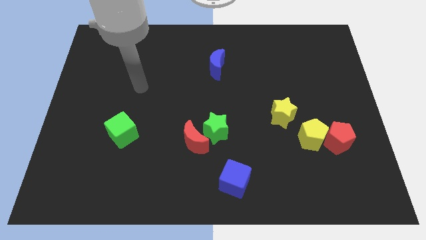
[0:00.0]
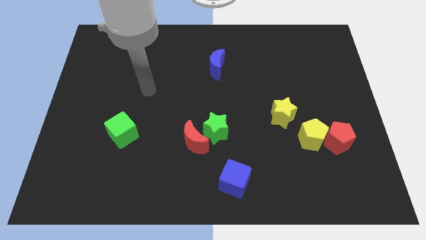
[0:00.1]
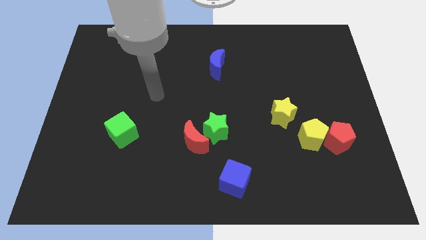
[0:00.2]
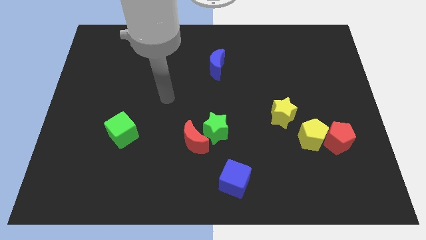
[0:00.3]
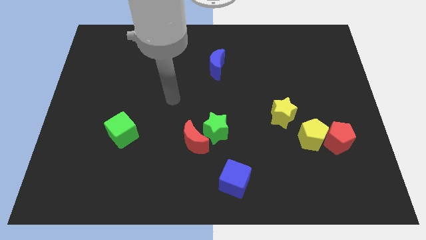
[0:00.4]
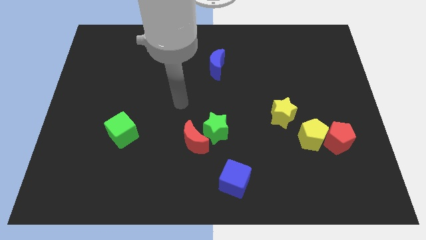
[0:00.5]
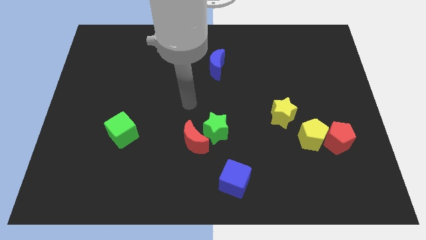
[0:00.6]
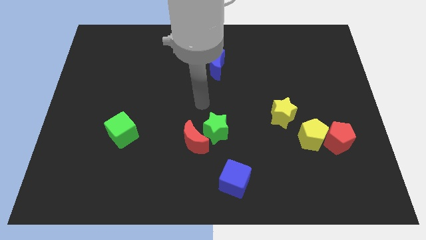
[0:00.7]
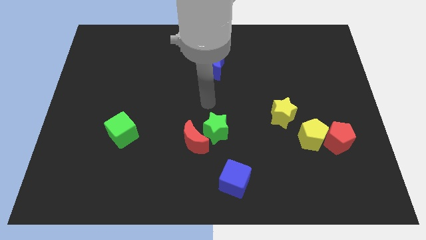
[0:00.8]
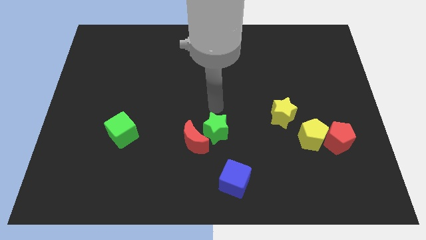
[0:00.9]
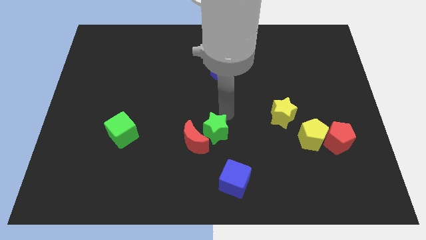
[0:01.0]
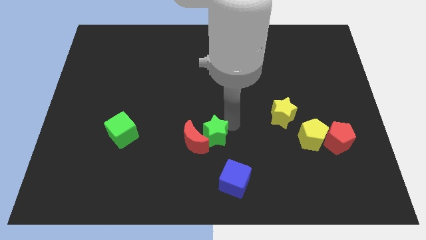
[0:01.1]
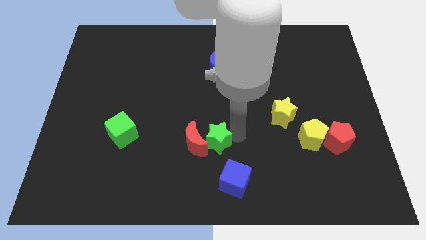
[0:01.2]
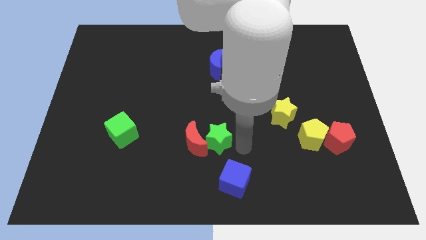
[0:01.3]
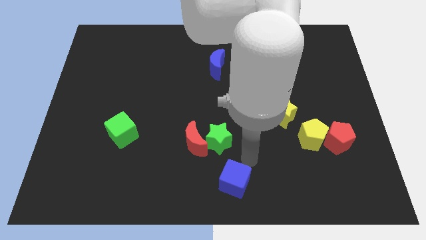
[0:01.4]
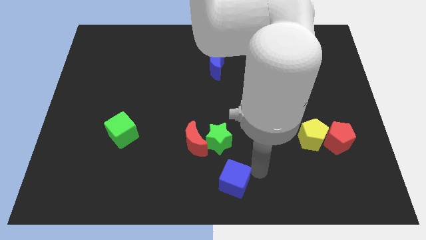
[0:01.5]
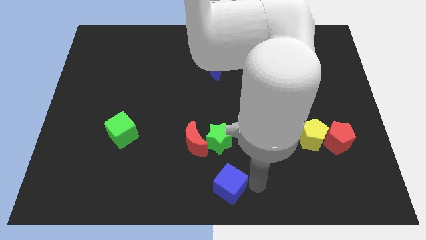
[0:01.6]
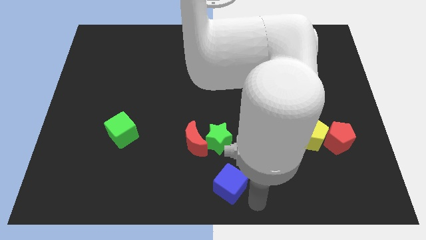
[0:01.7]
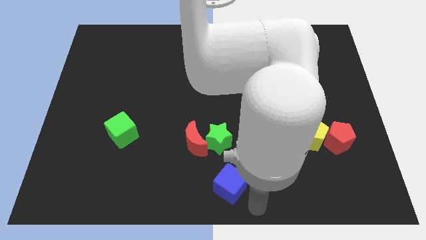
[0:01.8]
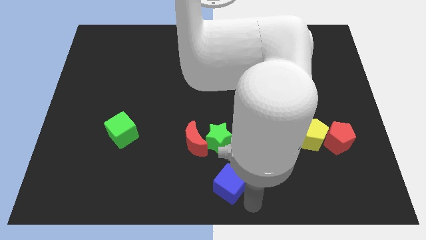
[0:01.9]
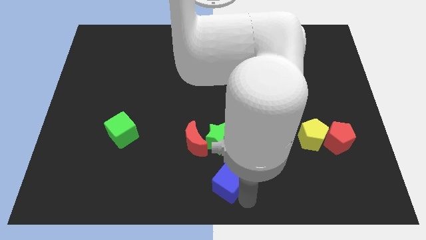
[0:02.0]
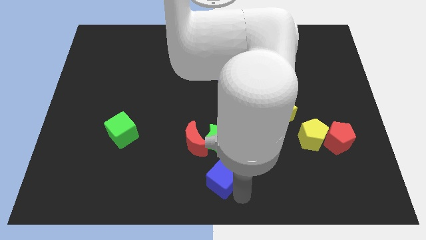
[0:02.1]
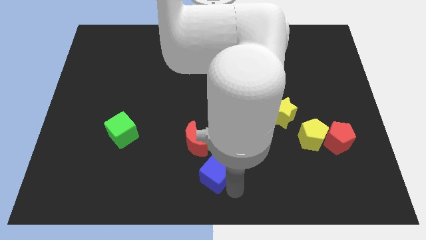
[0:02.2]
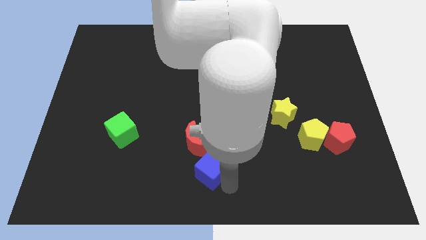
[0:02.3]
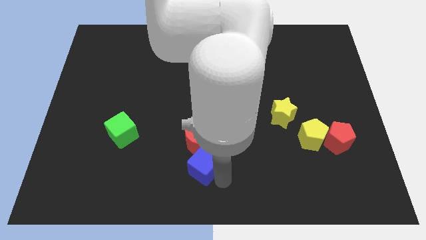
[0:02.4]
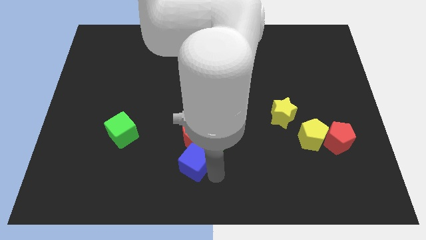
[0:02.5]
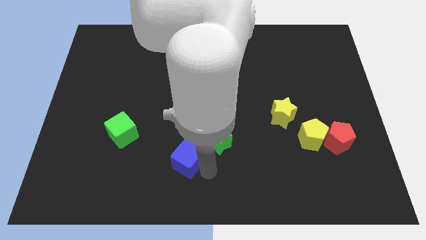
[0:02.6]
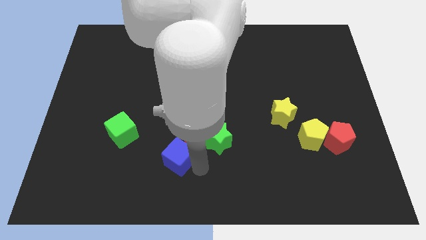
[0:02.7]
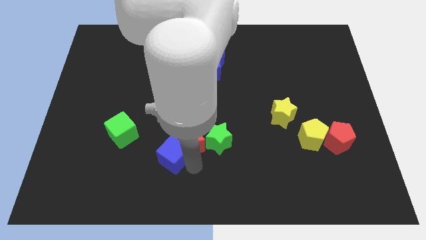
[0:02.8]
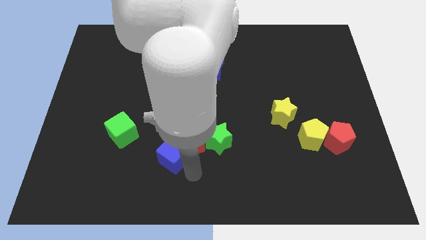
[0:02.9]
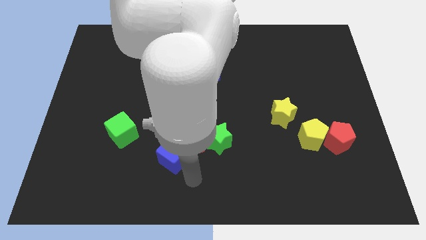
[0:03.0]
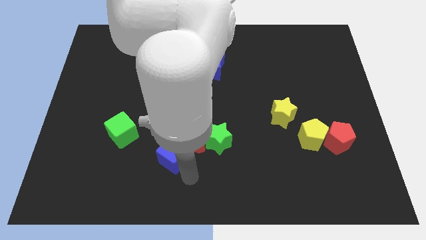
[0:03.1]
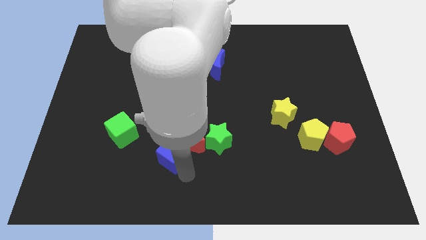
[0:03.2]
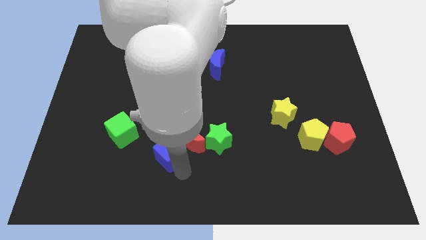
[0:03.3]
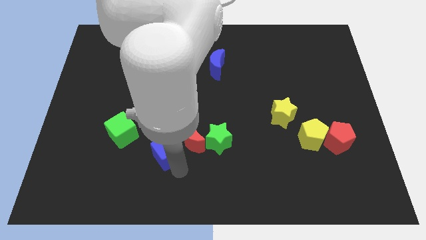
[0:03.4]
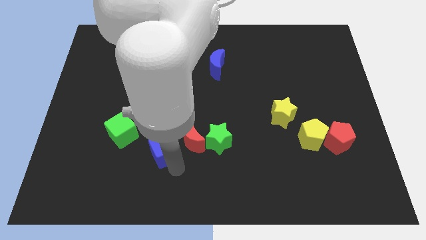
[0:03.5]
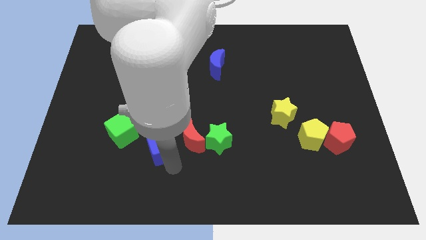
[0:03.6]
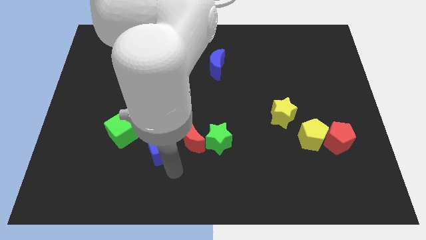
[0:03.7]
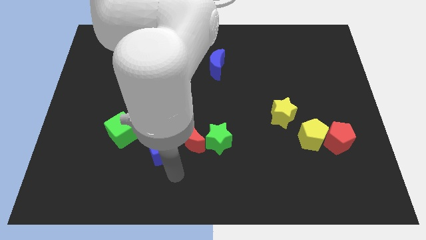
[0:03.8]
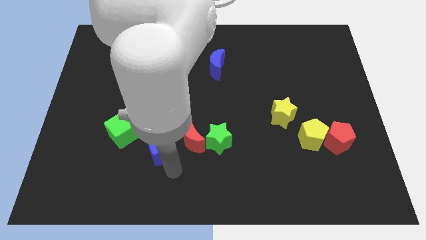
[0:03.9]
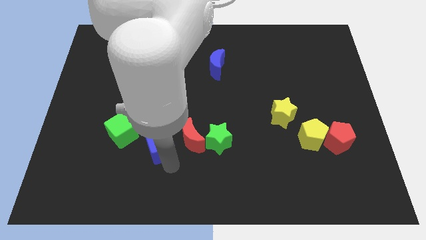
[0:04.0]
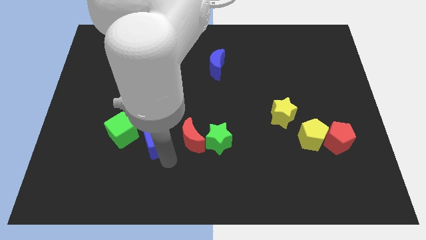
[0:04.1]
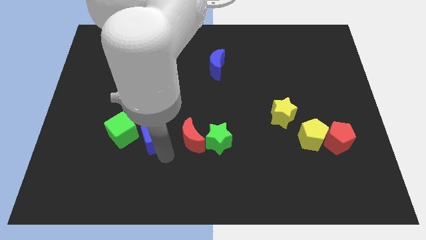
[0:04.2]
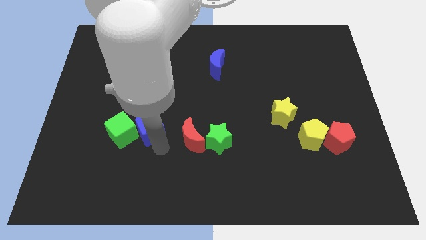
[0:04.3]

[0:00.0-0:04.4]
push the blue cube upwards and left

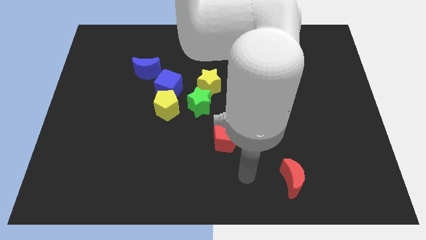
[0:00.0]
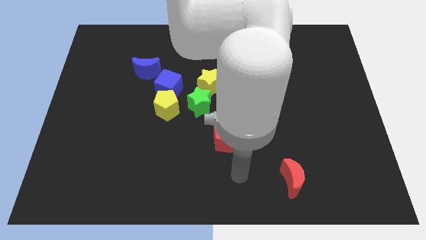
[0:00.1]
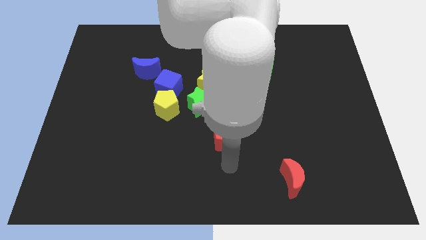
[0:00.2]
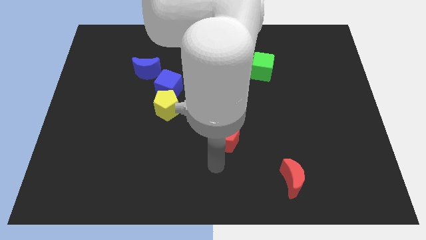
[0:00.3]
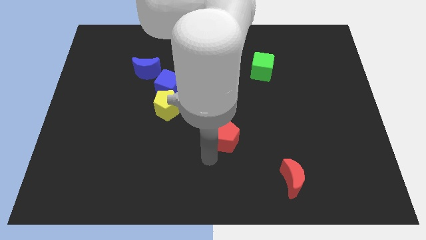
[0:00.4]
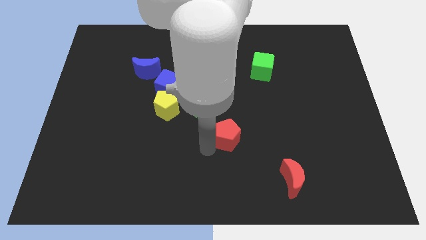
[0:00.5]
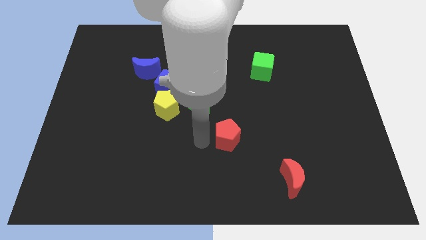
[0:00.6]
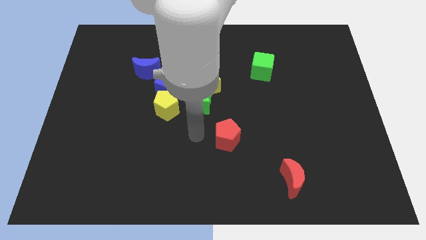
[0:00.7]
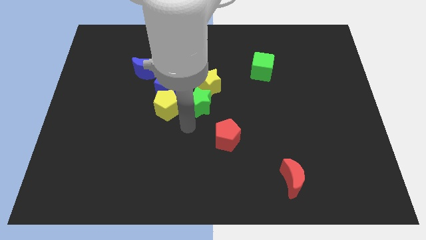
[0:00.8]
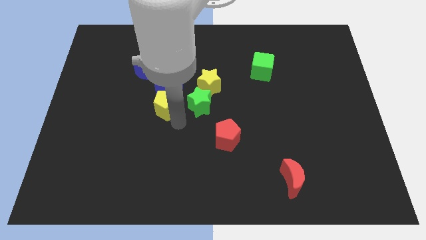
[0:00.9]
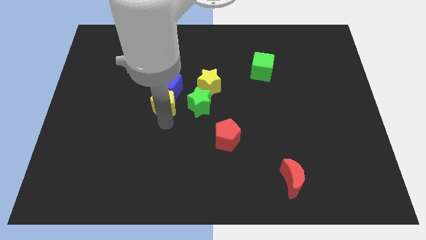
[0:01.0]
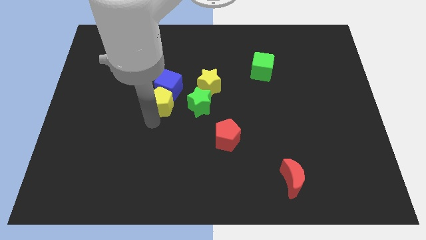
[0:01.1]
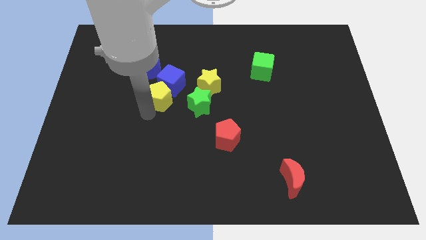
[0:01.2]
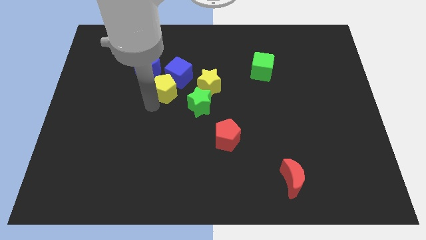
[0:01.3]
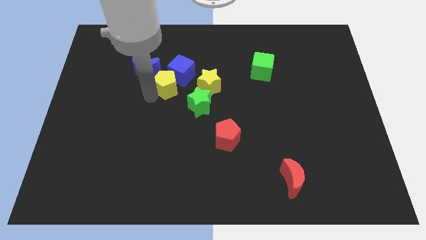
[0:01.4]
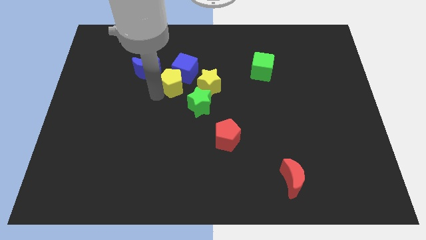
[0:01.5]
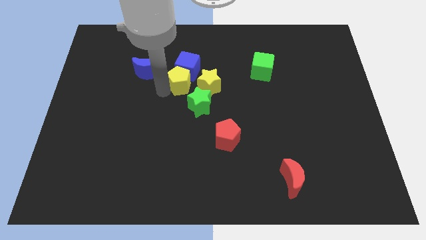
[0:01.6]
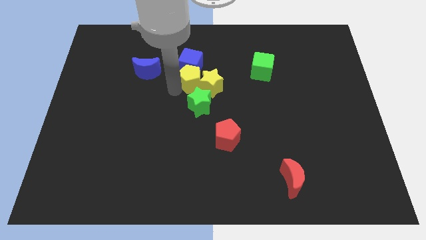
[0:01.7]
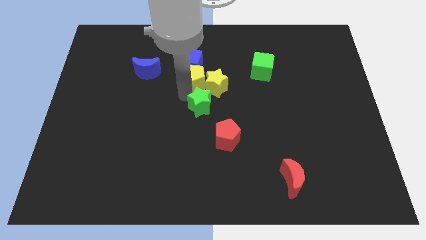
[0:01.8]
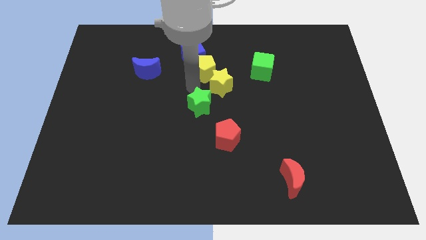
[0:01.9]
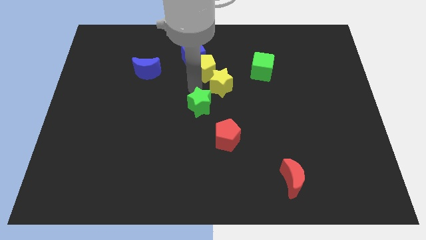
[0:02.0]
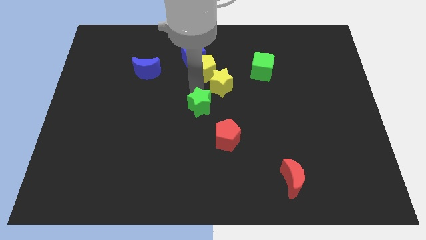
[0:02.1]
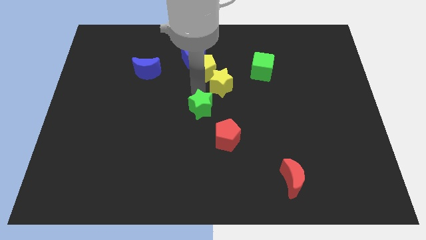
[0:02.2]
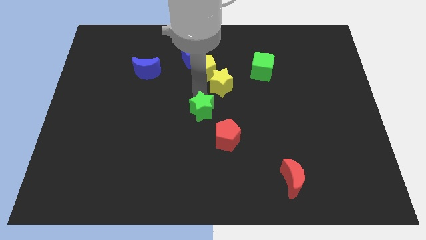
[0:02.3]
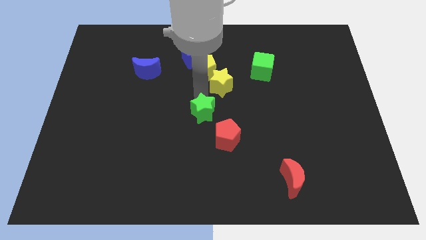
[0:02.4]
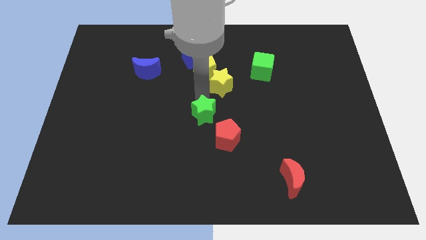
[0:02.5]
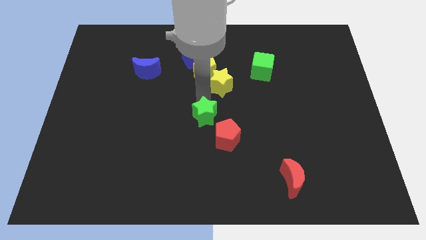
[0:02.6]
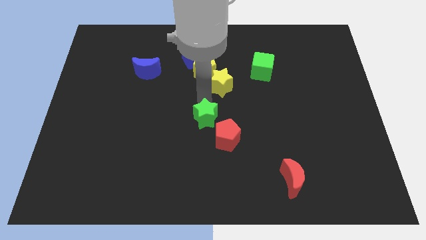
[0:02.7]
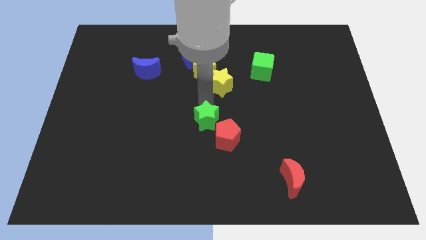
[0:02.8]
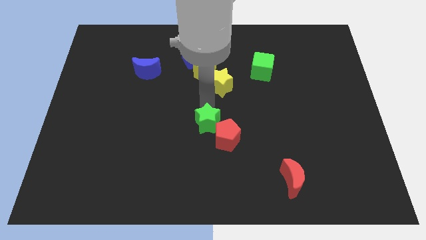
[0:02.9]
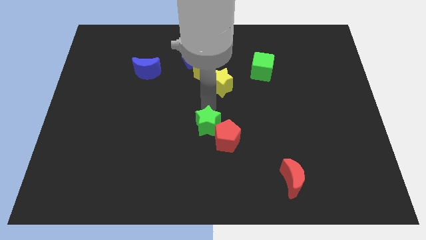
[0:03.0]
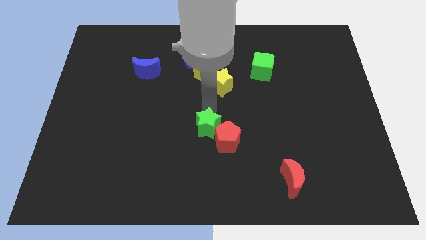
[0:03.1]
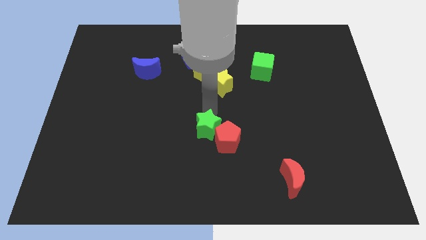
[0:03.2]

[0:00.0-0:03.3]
slightly move the green star downwards
